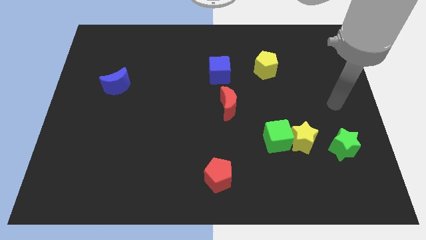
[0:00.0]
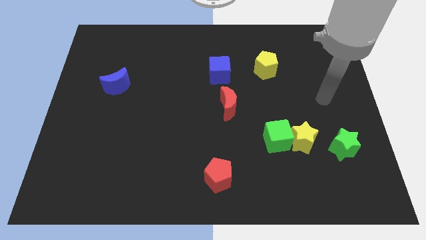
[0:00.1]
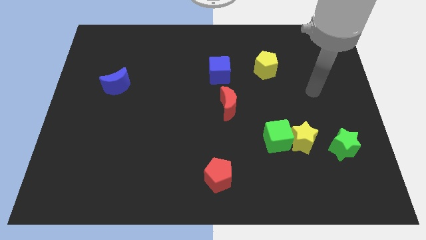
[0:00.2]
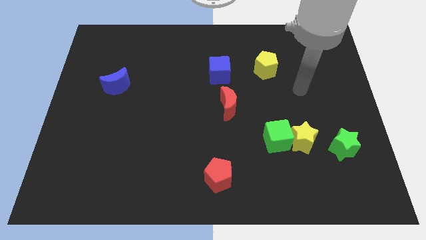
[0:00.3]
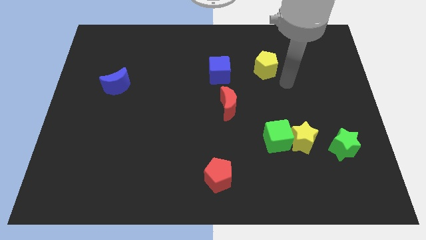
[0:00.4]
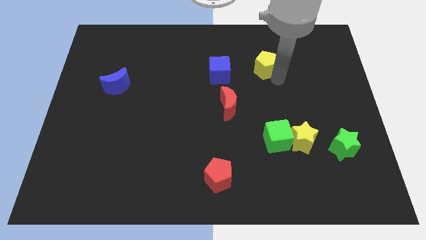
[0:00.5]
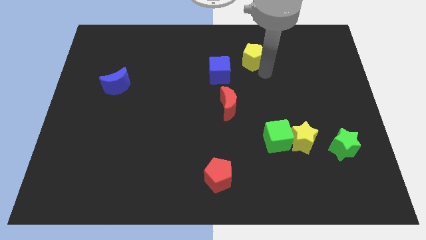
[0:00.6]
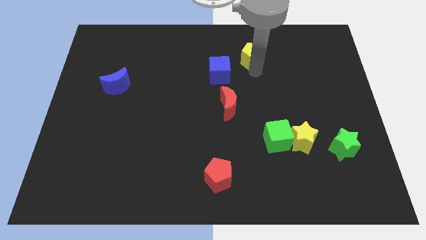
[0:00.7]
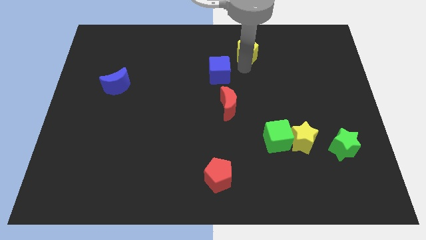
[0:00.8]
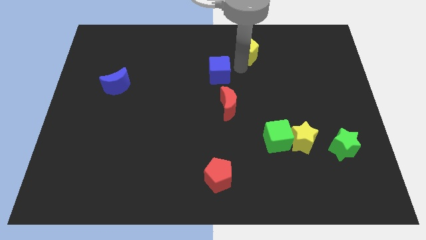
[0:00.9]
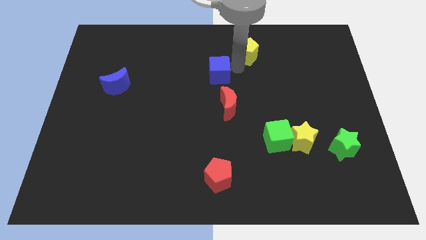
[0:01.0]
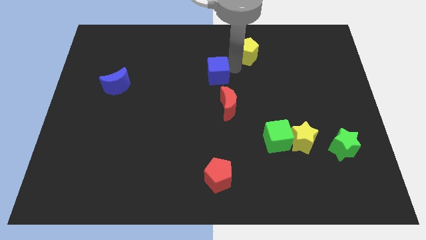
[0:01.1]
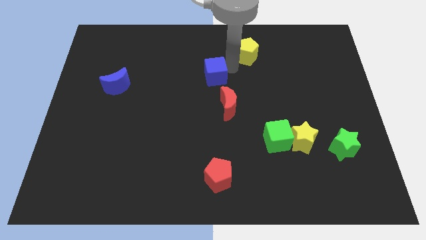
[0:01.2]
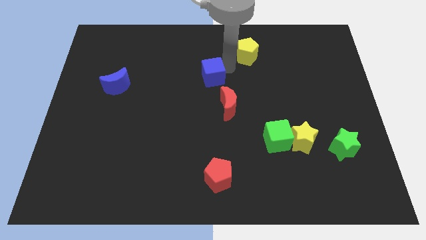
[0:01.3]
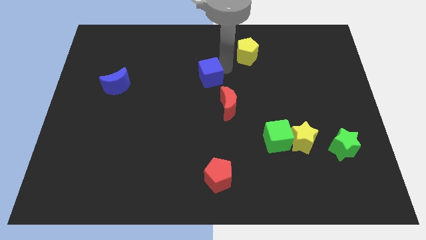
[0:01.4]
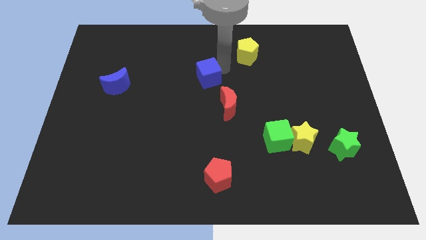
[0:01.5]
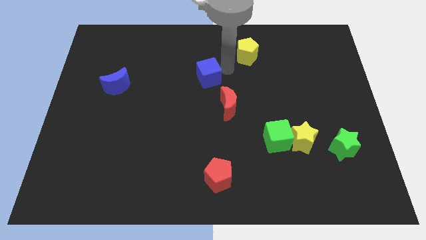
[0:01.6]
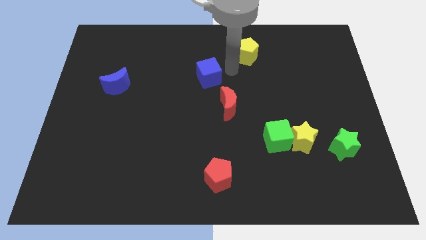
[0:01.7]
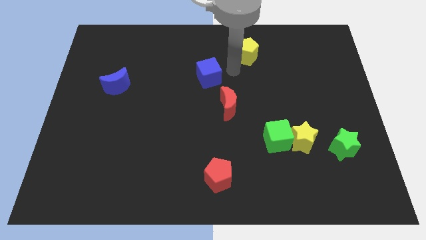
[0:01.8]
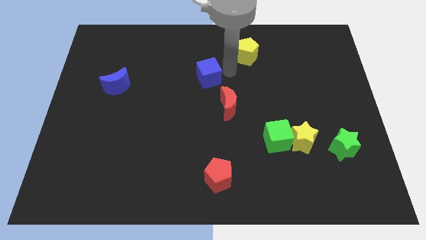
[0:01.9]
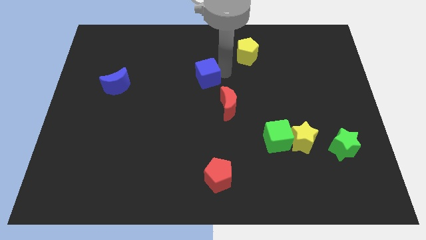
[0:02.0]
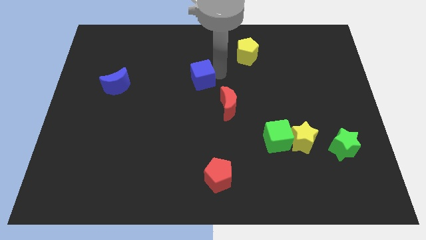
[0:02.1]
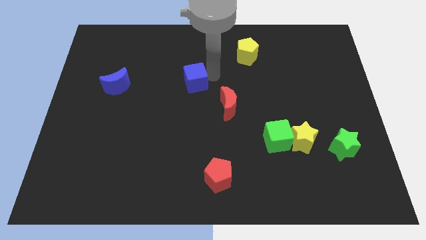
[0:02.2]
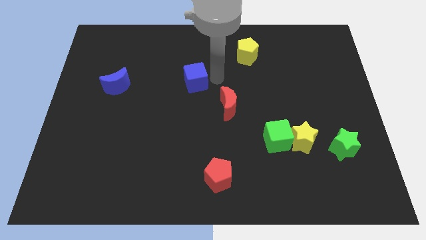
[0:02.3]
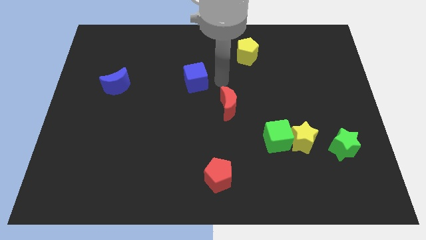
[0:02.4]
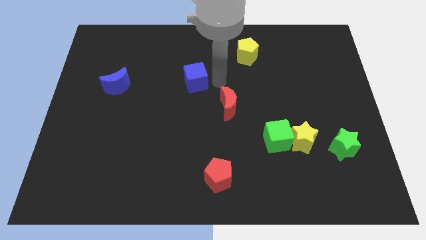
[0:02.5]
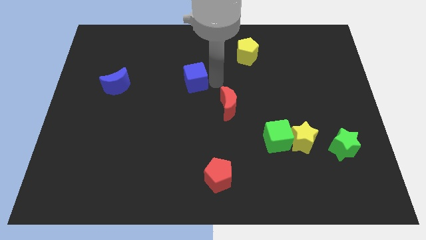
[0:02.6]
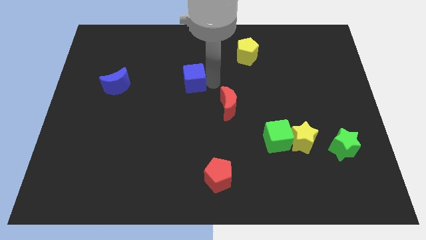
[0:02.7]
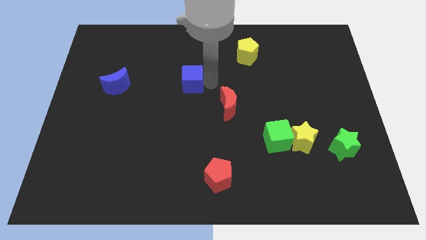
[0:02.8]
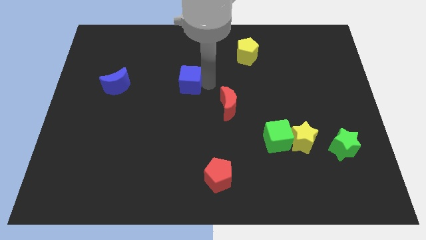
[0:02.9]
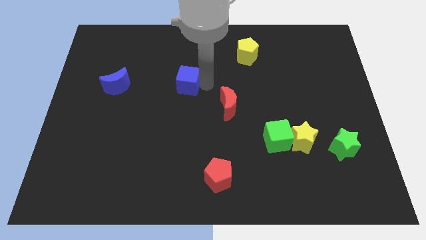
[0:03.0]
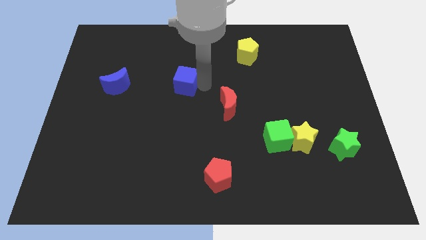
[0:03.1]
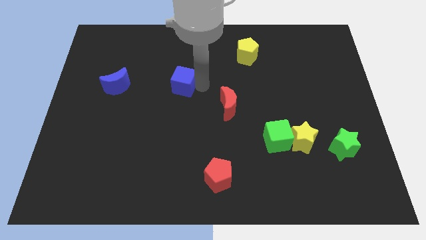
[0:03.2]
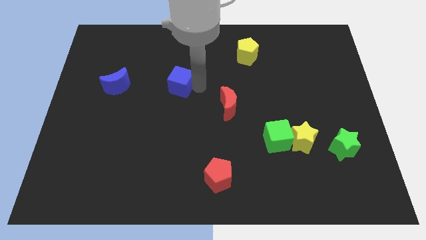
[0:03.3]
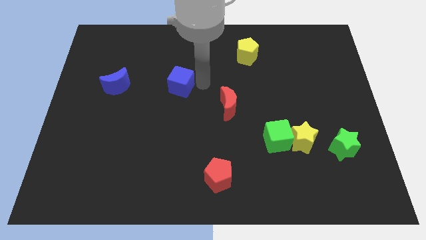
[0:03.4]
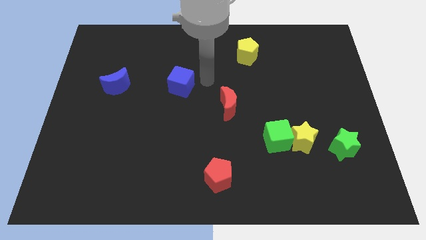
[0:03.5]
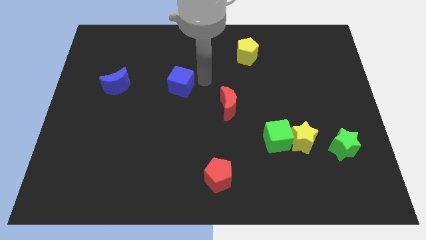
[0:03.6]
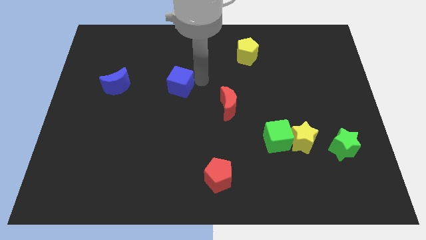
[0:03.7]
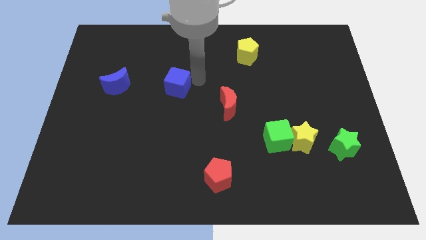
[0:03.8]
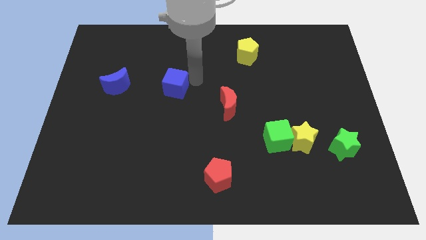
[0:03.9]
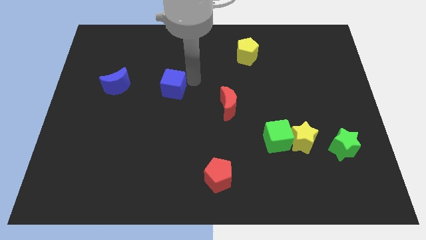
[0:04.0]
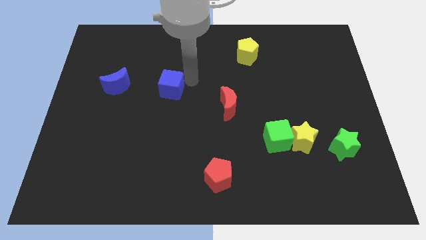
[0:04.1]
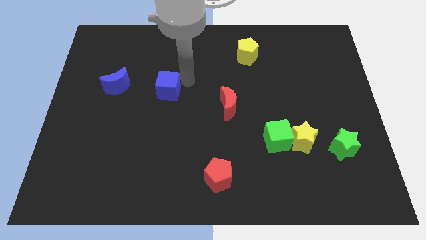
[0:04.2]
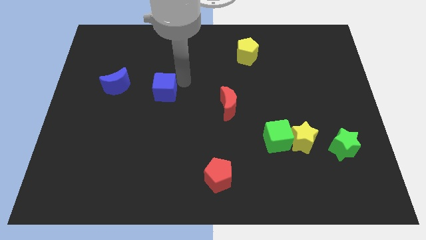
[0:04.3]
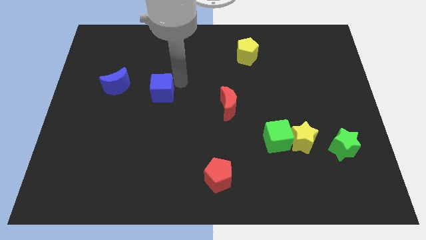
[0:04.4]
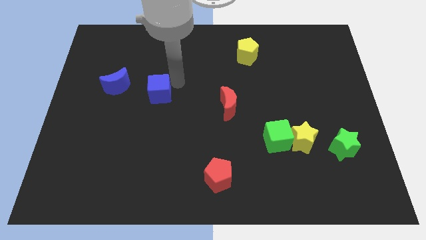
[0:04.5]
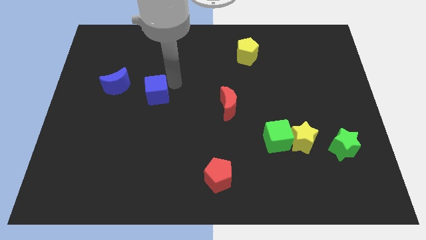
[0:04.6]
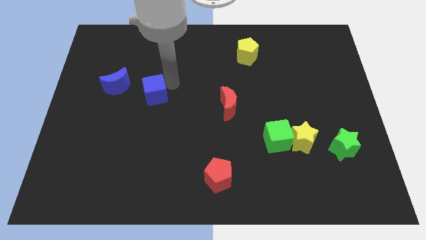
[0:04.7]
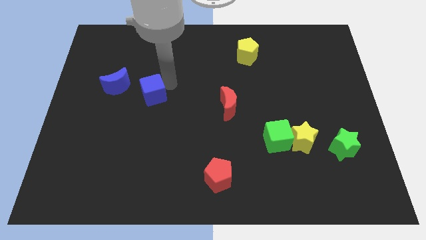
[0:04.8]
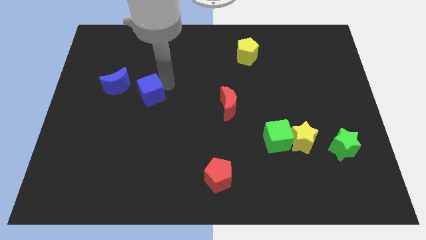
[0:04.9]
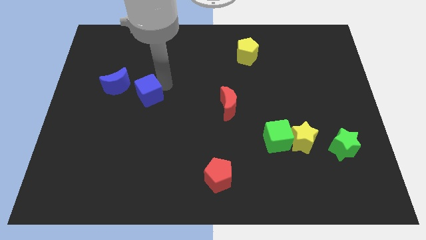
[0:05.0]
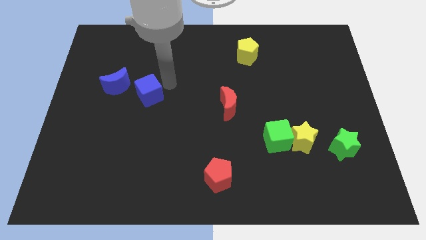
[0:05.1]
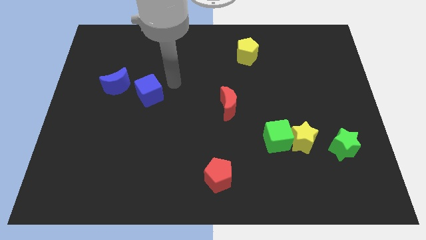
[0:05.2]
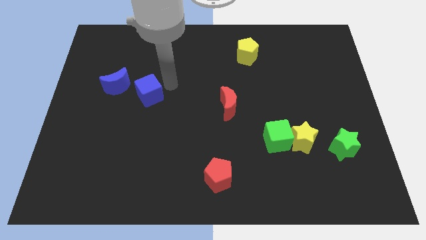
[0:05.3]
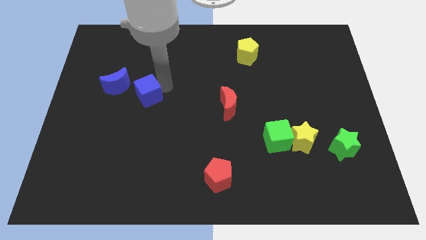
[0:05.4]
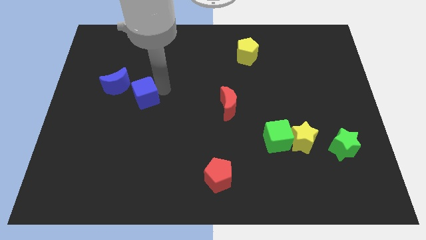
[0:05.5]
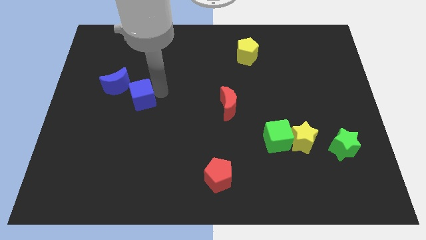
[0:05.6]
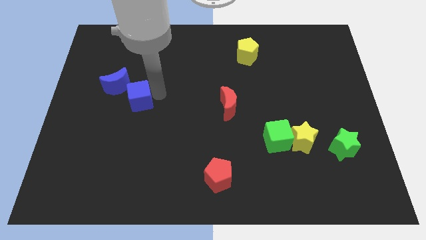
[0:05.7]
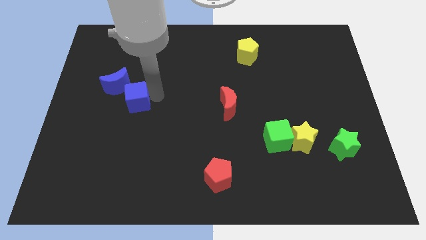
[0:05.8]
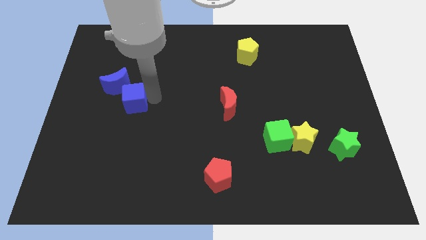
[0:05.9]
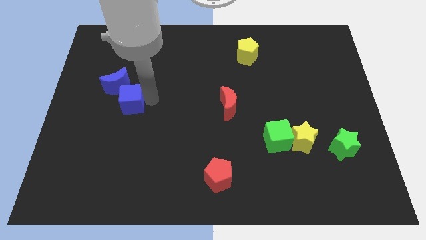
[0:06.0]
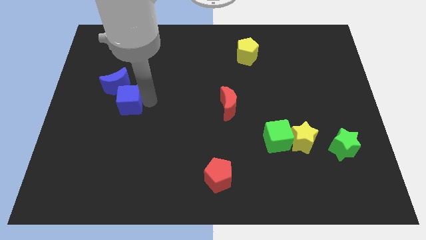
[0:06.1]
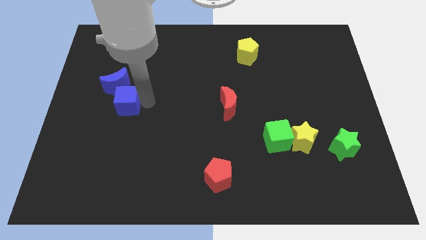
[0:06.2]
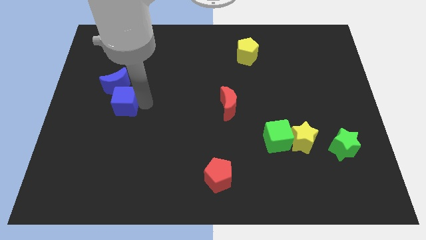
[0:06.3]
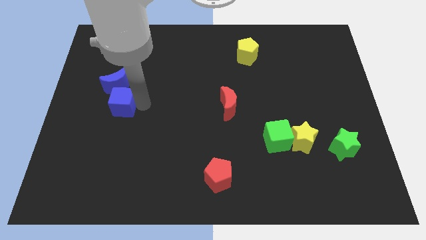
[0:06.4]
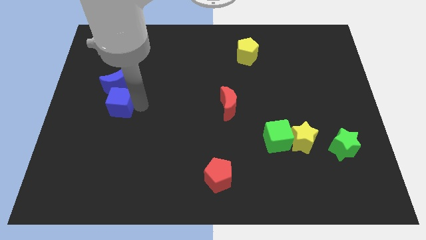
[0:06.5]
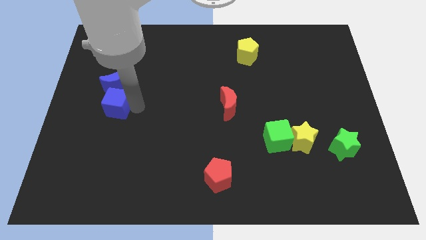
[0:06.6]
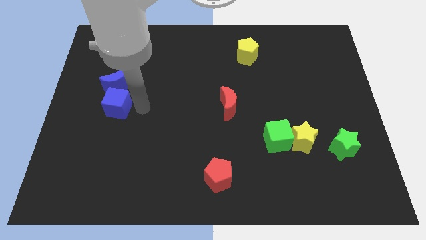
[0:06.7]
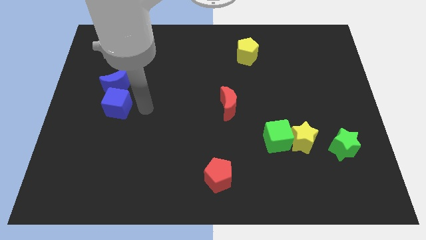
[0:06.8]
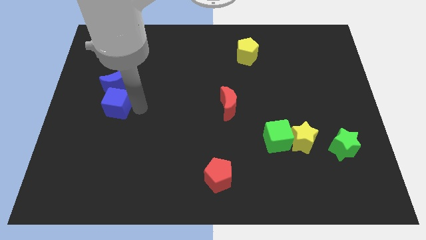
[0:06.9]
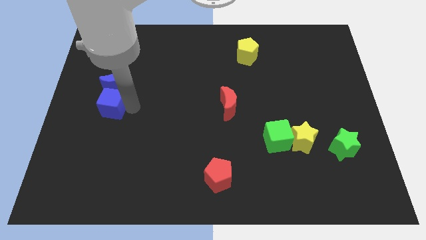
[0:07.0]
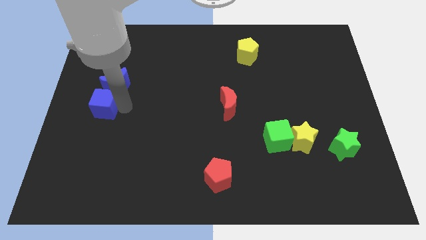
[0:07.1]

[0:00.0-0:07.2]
slide the blue cube to the center left
